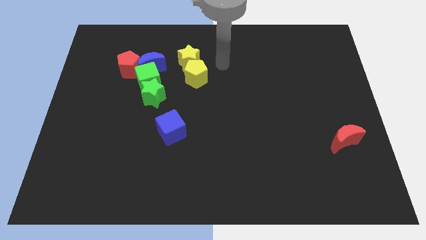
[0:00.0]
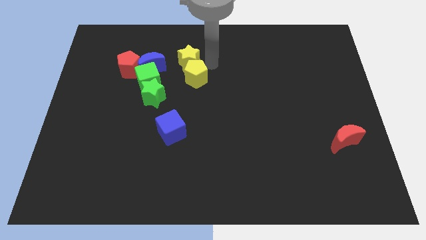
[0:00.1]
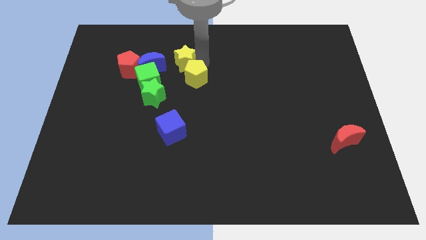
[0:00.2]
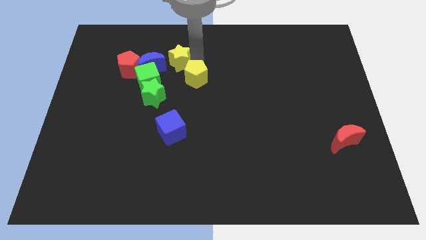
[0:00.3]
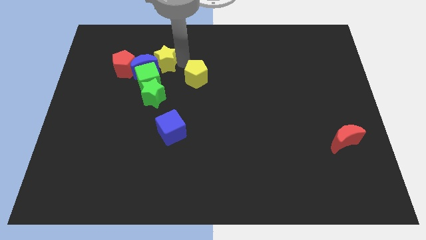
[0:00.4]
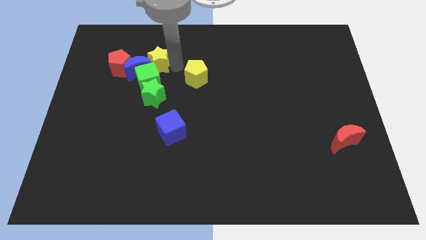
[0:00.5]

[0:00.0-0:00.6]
pull the yellow pentagon apart from the yellow star

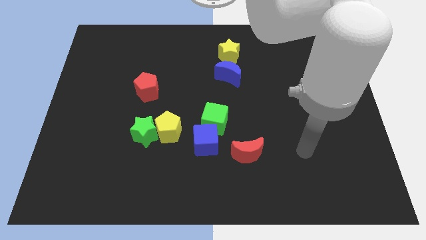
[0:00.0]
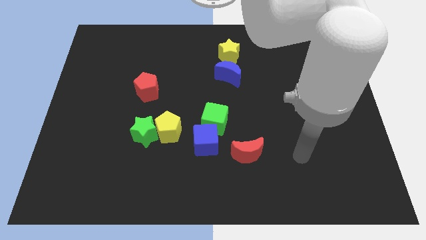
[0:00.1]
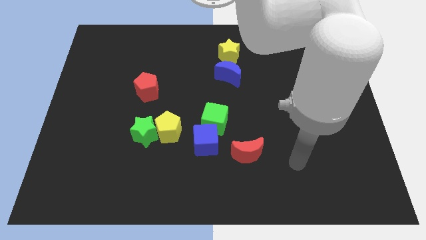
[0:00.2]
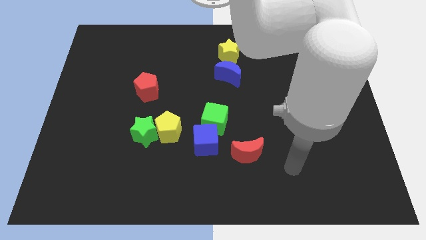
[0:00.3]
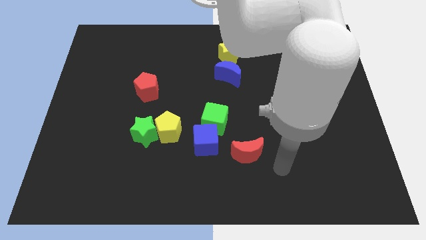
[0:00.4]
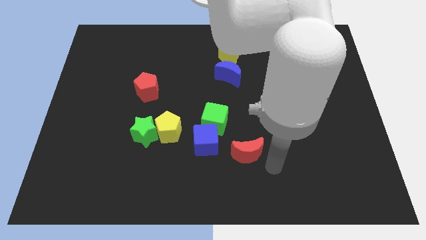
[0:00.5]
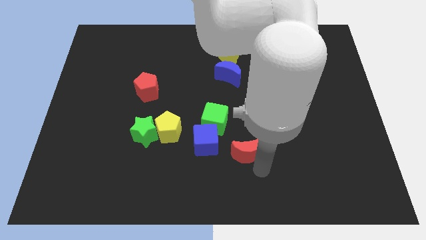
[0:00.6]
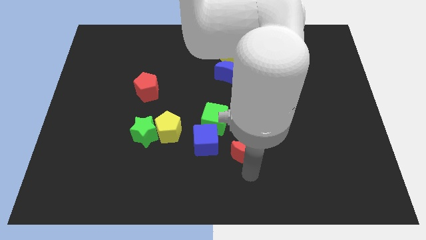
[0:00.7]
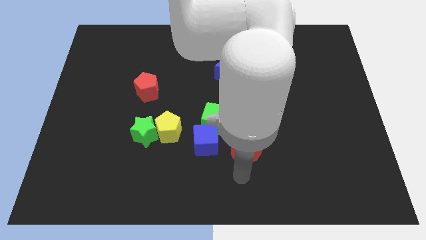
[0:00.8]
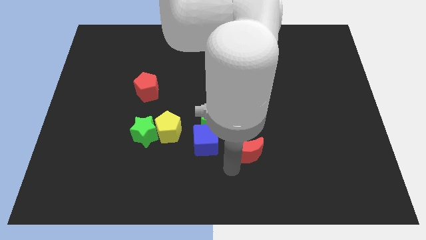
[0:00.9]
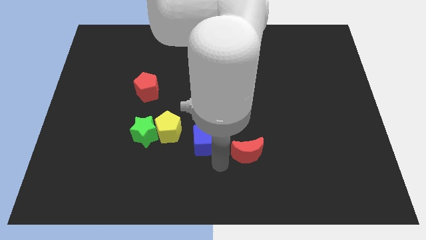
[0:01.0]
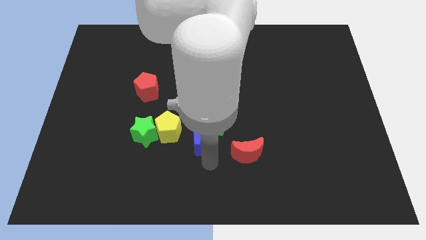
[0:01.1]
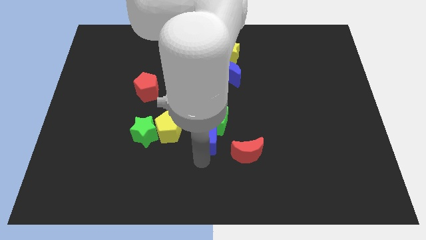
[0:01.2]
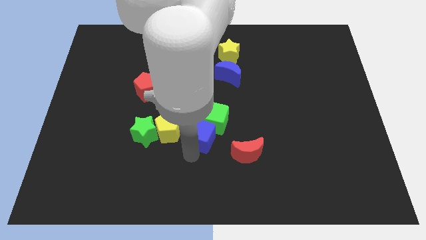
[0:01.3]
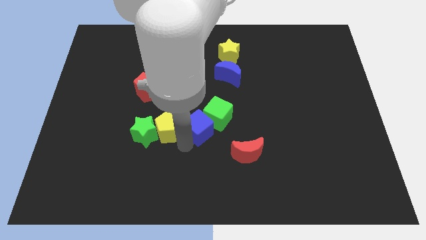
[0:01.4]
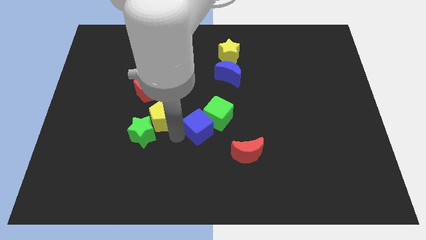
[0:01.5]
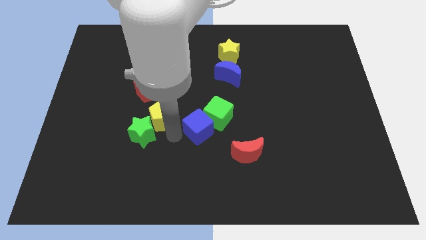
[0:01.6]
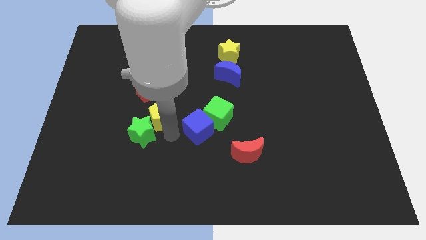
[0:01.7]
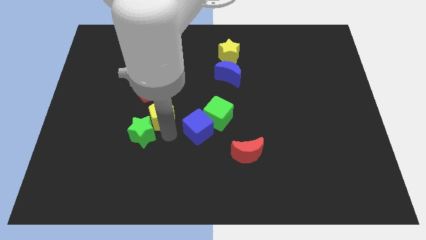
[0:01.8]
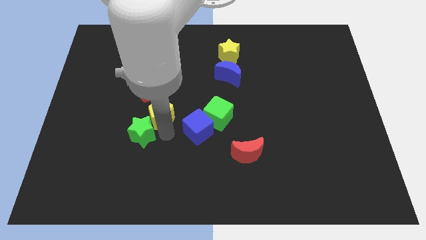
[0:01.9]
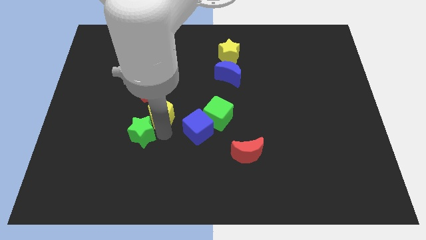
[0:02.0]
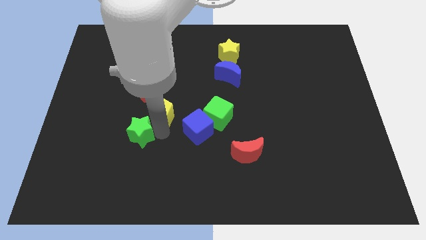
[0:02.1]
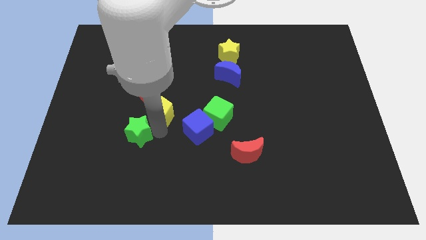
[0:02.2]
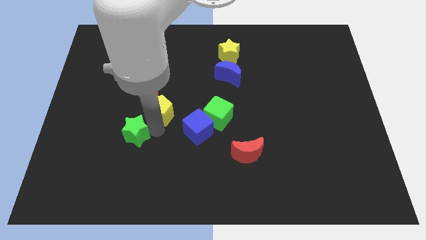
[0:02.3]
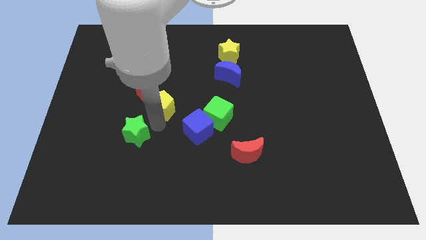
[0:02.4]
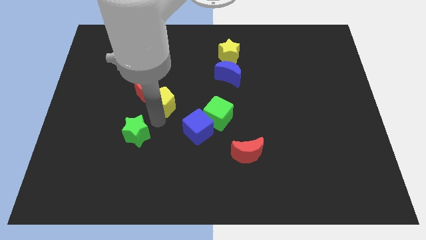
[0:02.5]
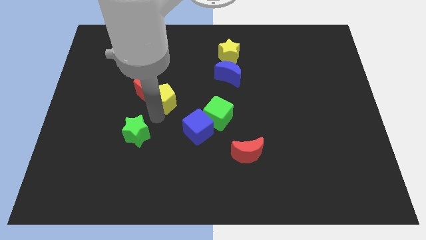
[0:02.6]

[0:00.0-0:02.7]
move the green star away from the yellow pentagon

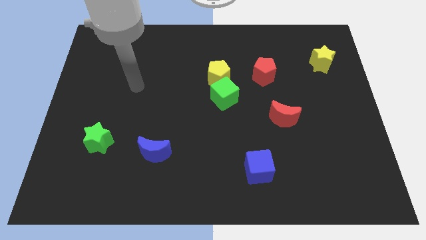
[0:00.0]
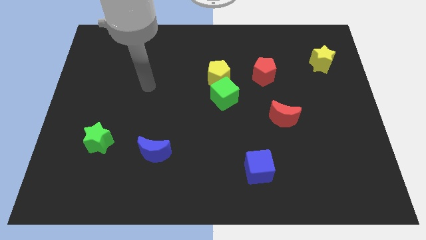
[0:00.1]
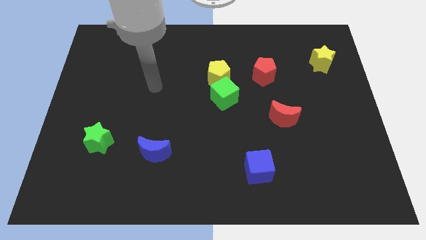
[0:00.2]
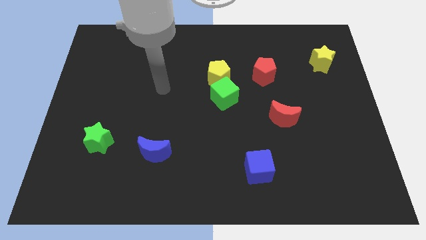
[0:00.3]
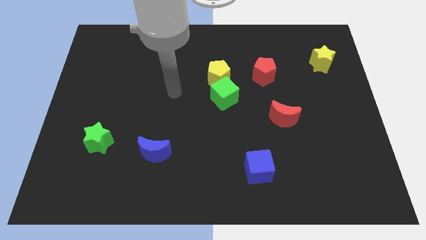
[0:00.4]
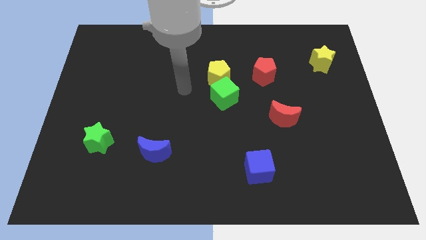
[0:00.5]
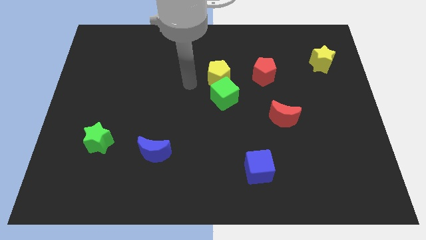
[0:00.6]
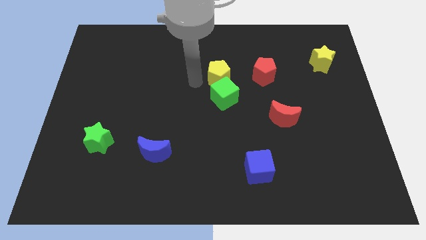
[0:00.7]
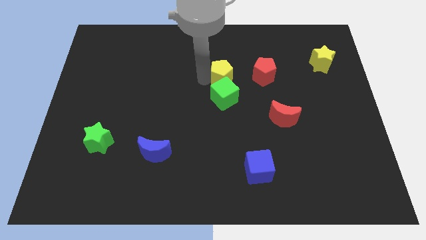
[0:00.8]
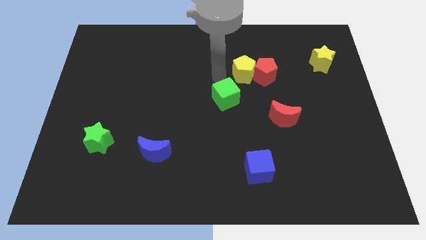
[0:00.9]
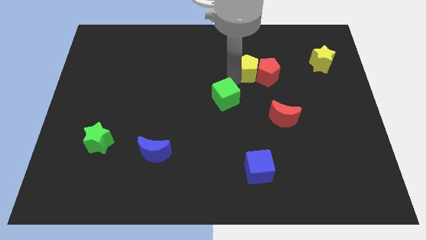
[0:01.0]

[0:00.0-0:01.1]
move the green cube away from the yellow pentagon

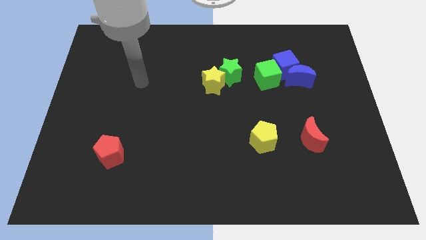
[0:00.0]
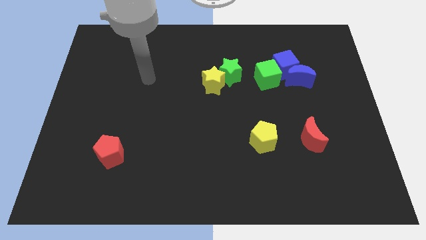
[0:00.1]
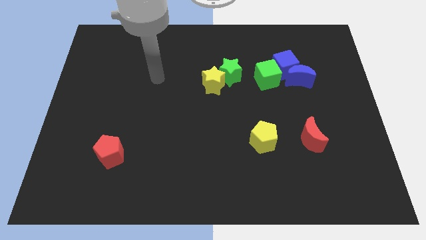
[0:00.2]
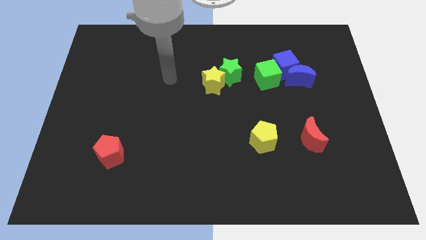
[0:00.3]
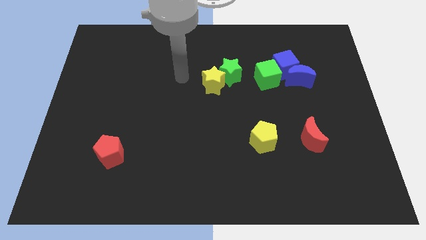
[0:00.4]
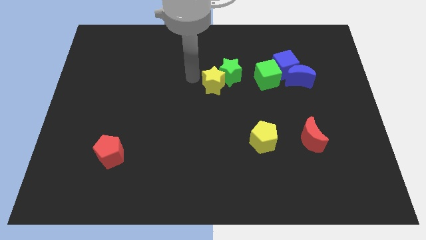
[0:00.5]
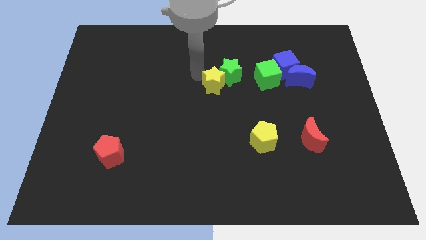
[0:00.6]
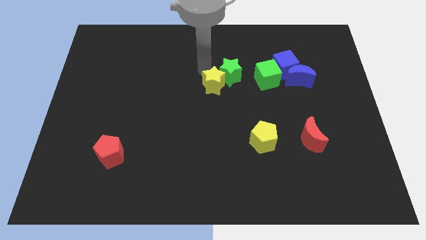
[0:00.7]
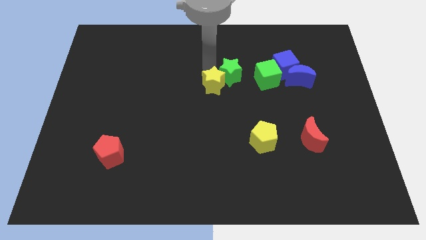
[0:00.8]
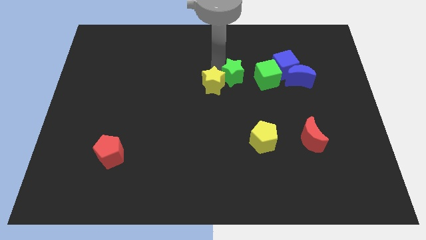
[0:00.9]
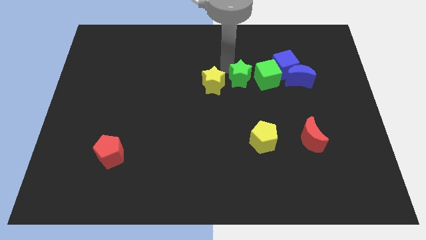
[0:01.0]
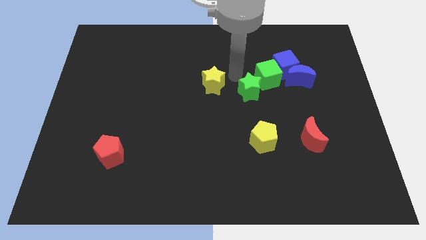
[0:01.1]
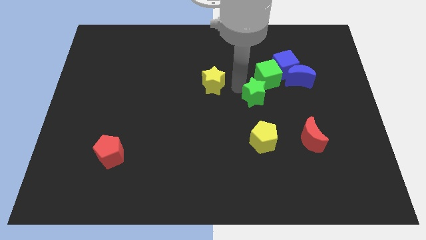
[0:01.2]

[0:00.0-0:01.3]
move the yellow star away from the green star

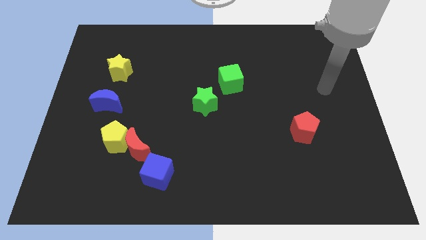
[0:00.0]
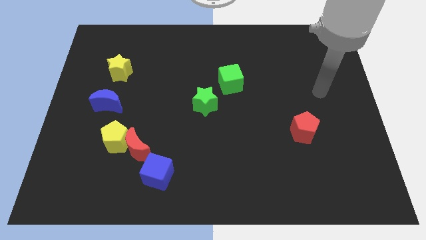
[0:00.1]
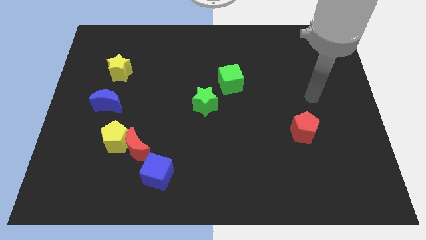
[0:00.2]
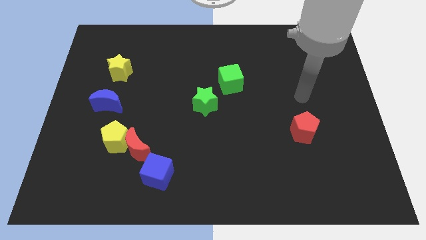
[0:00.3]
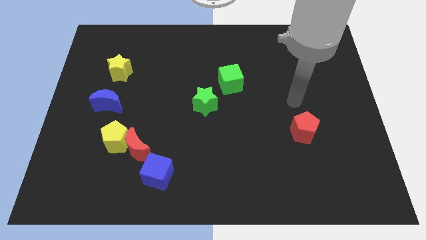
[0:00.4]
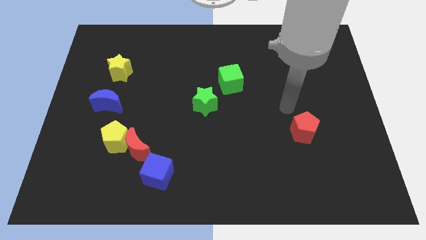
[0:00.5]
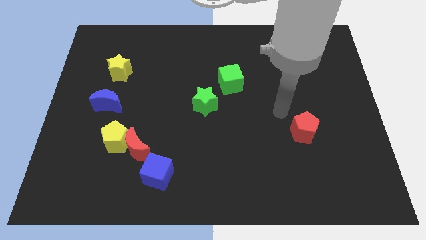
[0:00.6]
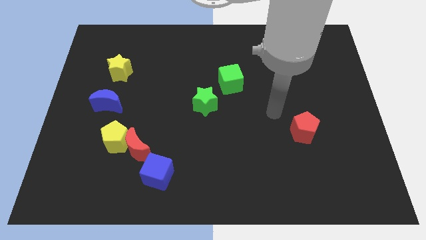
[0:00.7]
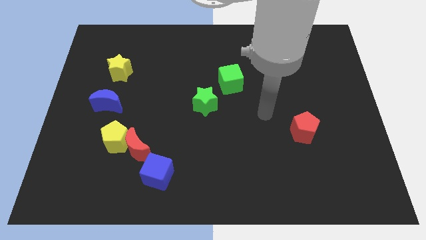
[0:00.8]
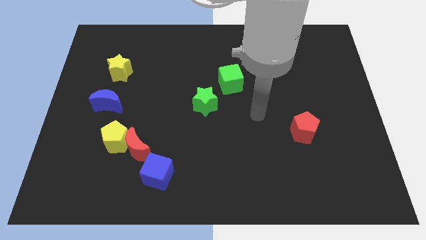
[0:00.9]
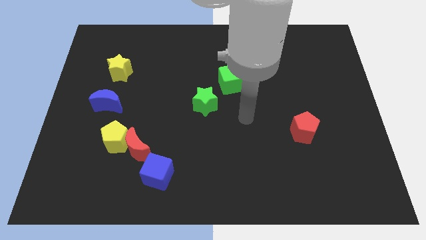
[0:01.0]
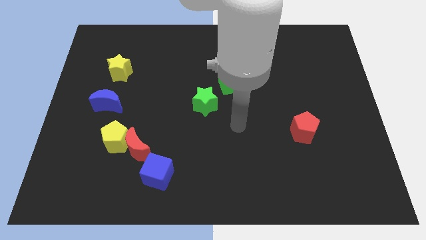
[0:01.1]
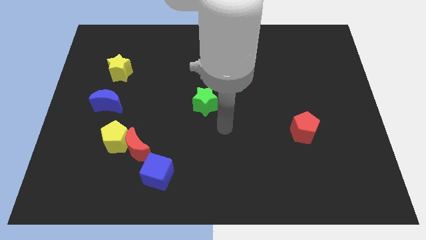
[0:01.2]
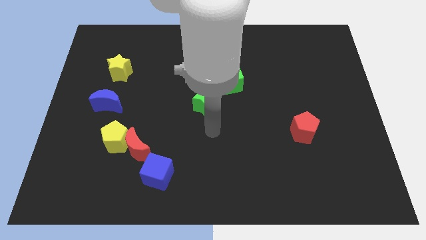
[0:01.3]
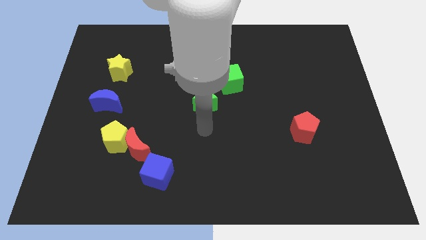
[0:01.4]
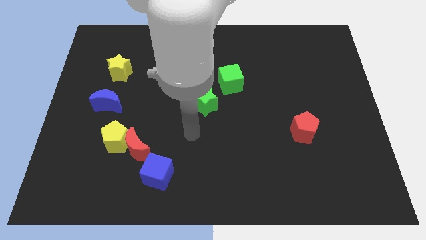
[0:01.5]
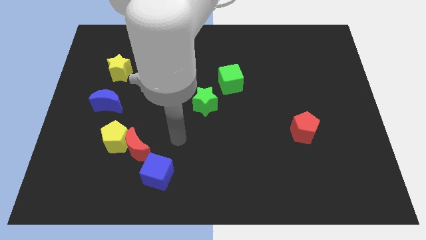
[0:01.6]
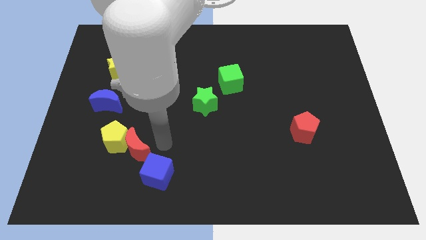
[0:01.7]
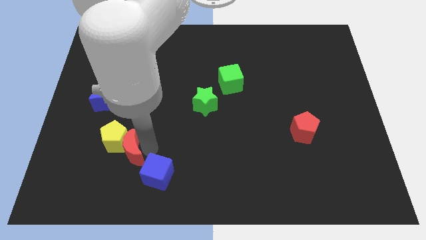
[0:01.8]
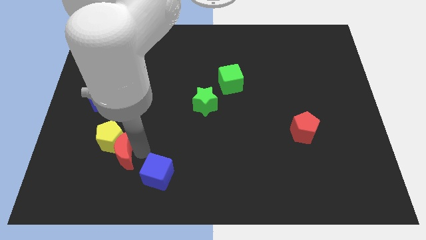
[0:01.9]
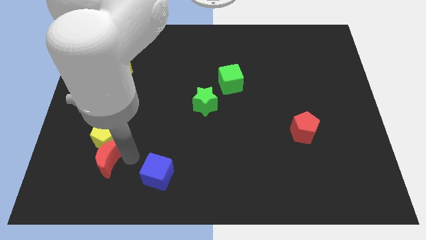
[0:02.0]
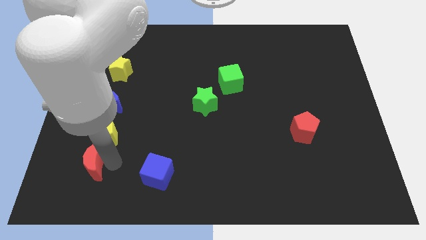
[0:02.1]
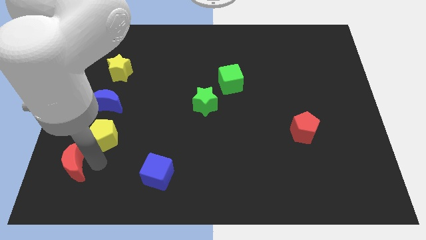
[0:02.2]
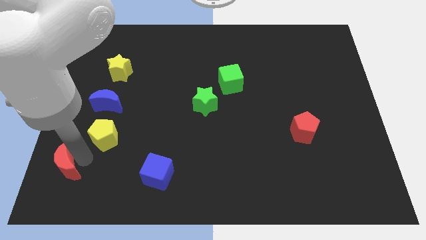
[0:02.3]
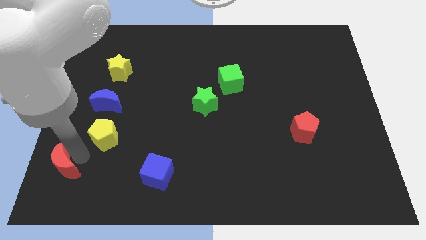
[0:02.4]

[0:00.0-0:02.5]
pull the yellow pentagon apart from the red moon

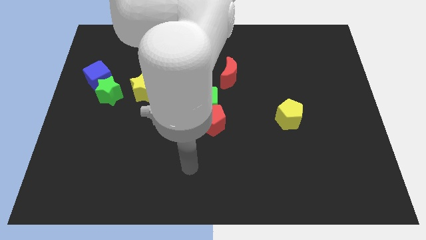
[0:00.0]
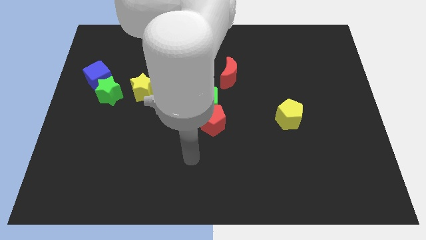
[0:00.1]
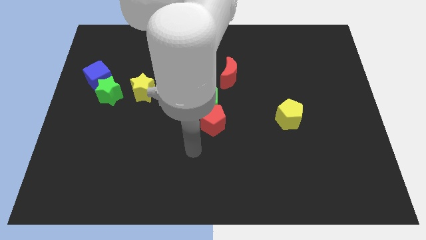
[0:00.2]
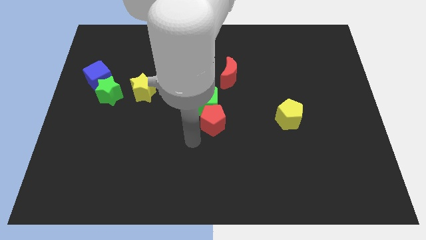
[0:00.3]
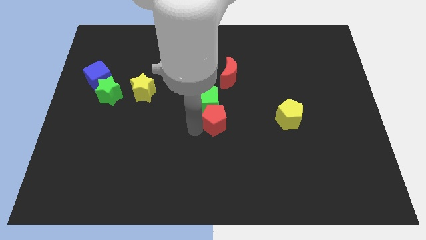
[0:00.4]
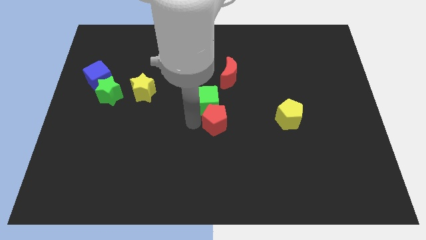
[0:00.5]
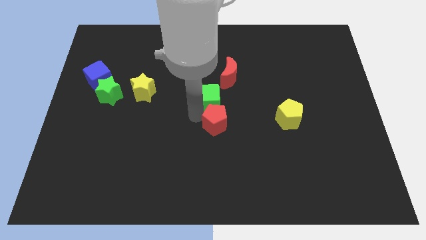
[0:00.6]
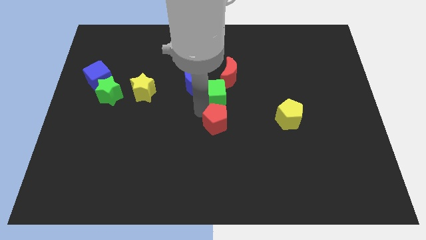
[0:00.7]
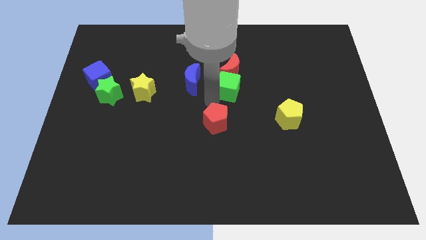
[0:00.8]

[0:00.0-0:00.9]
move the red pentagon away from the green cube

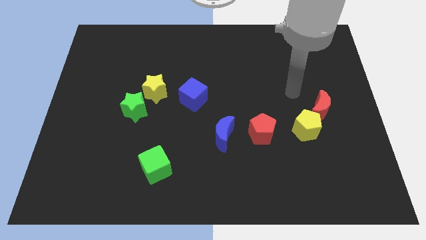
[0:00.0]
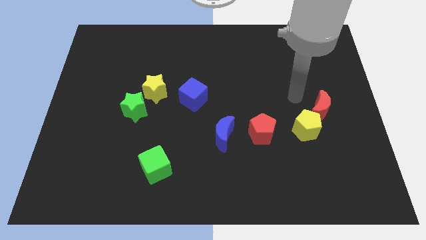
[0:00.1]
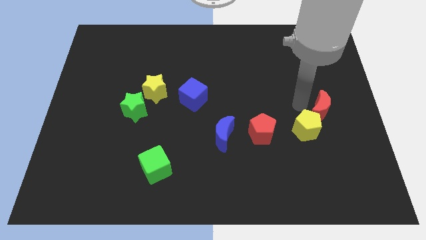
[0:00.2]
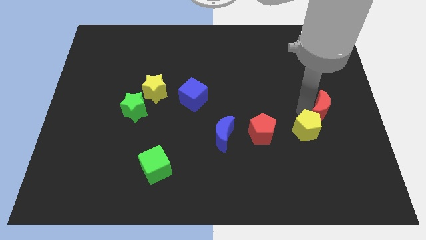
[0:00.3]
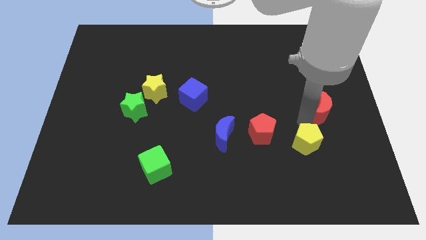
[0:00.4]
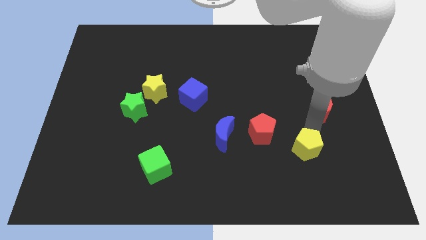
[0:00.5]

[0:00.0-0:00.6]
separate the red moon from the yellow pentagon
